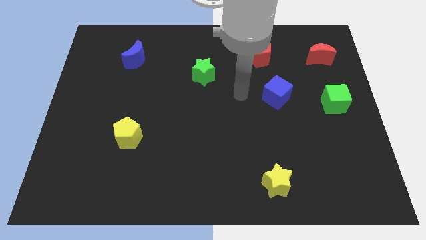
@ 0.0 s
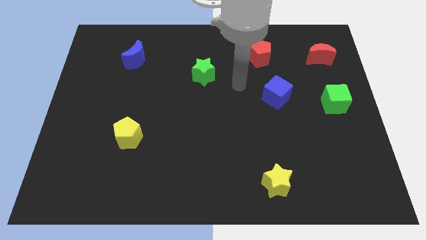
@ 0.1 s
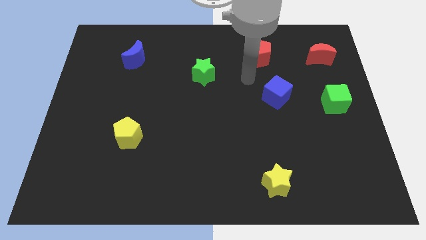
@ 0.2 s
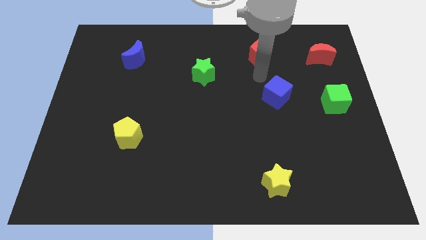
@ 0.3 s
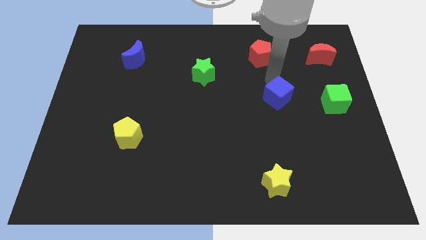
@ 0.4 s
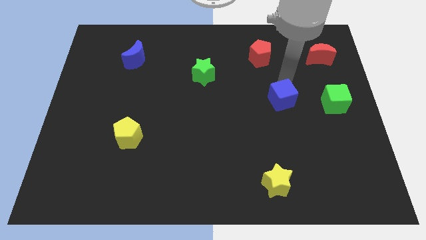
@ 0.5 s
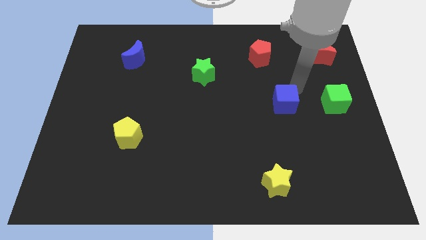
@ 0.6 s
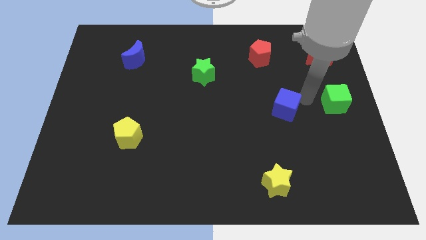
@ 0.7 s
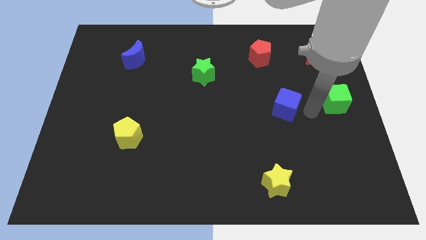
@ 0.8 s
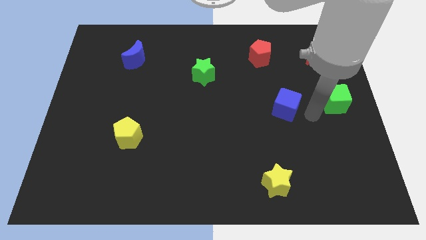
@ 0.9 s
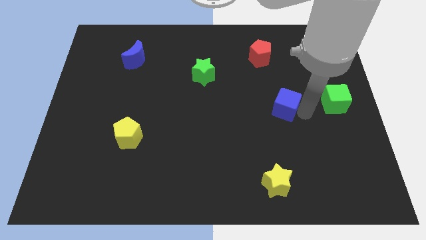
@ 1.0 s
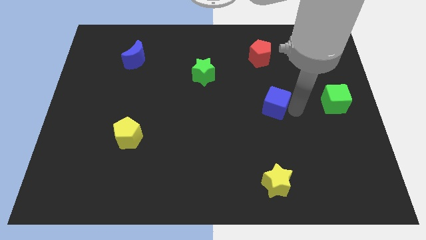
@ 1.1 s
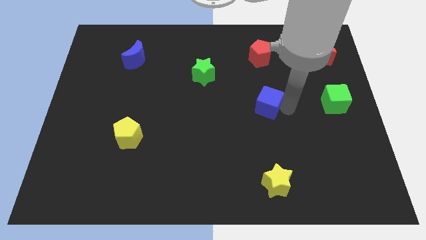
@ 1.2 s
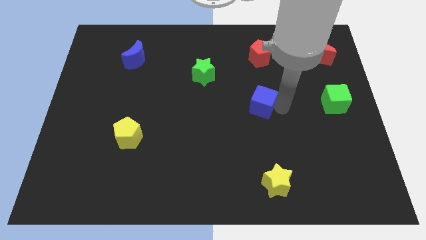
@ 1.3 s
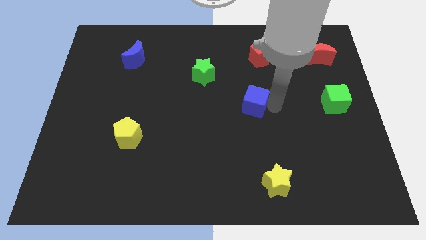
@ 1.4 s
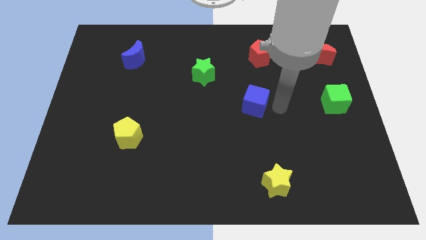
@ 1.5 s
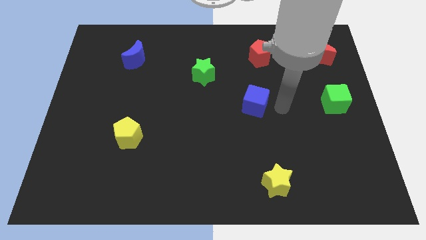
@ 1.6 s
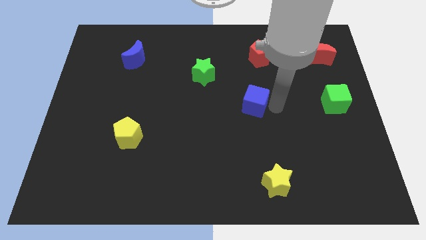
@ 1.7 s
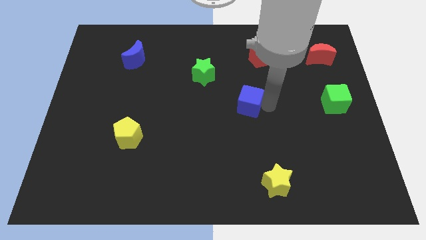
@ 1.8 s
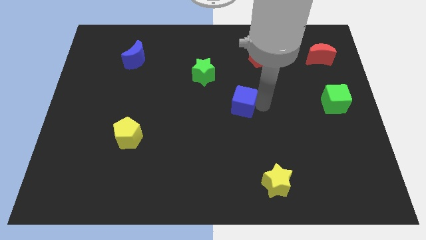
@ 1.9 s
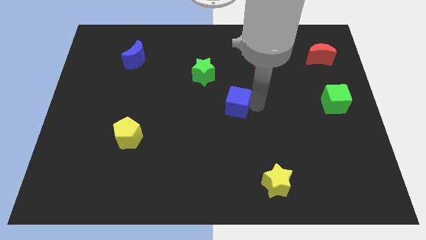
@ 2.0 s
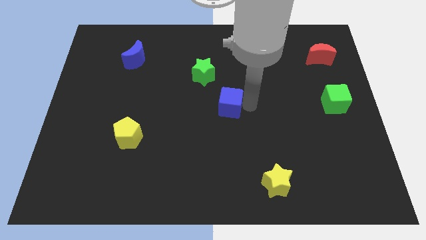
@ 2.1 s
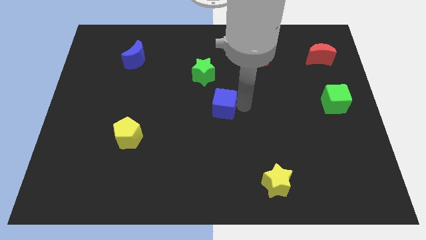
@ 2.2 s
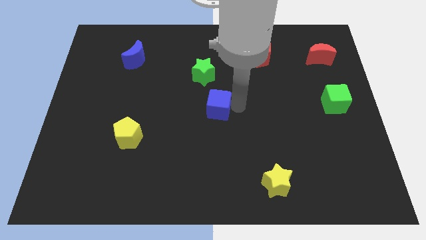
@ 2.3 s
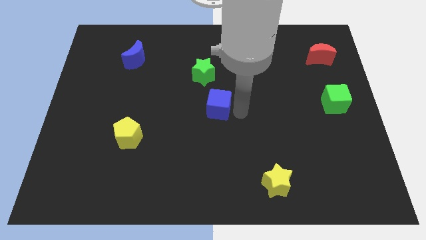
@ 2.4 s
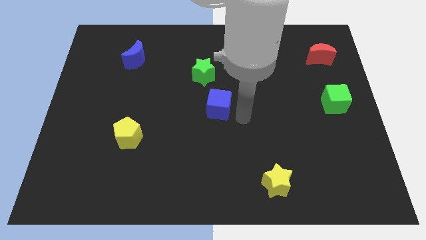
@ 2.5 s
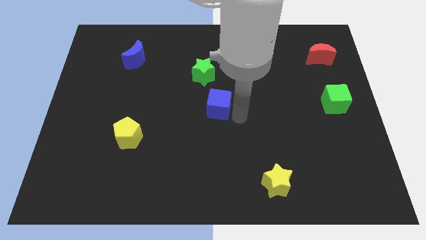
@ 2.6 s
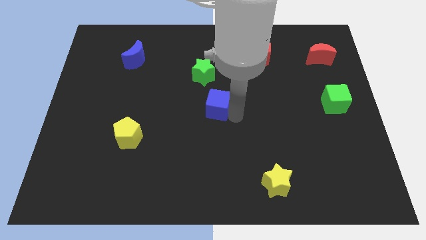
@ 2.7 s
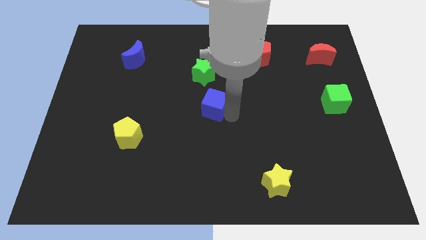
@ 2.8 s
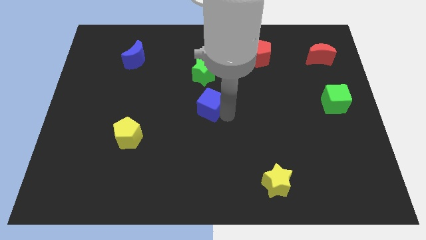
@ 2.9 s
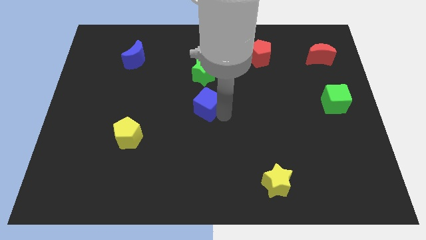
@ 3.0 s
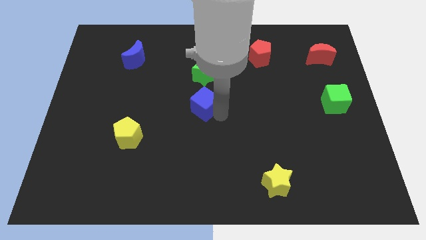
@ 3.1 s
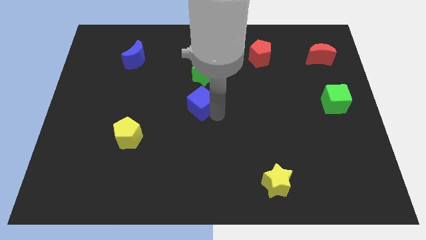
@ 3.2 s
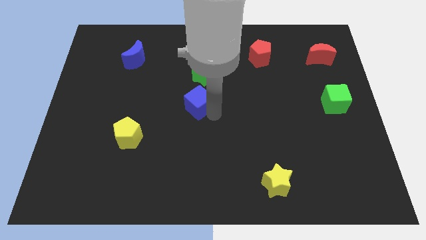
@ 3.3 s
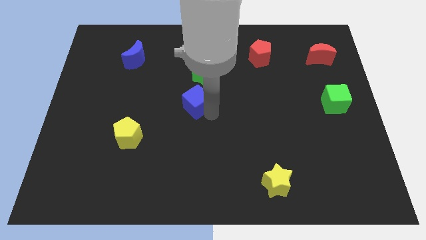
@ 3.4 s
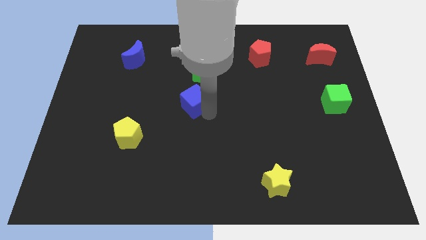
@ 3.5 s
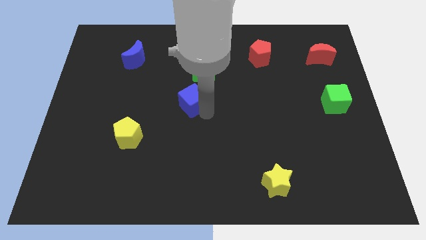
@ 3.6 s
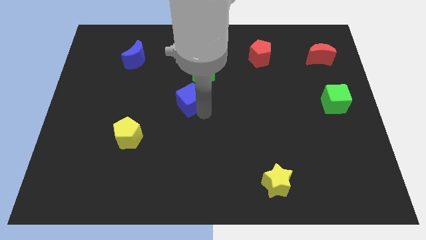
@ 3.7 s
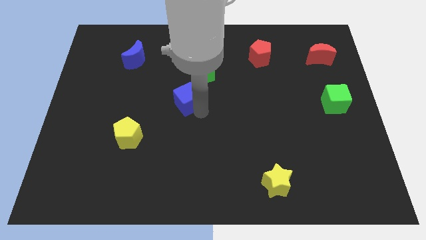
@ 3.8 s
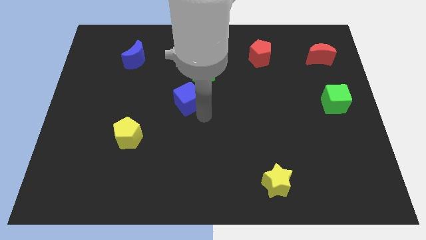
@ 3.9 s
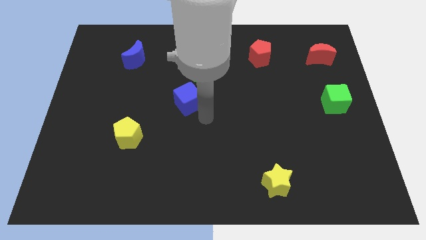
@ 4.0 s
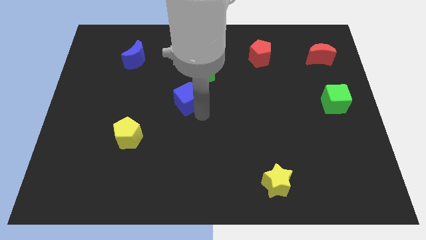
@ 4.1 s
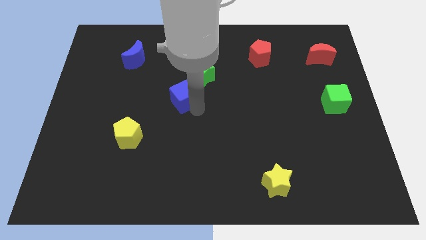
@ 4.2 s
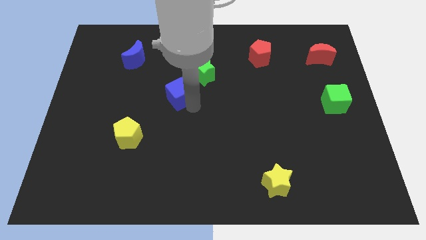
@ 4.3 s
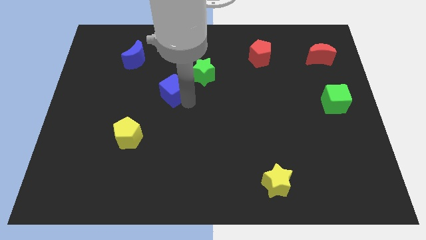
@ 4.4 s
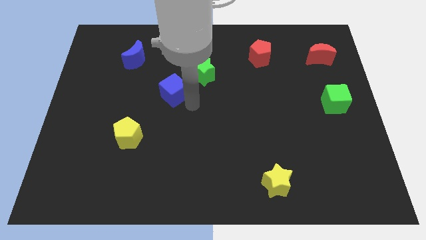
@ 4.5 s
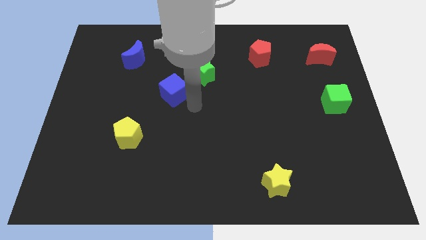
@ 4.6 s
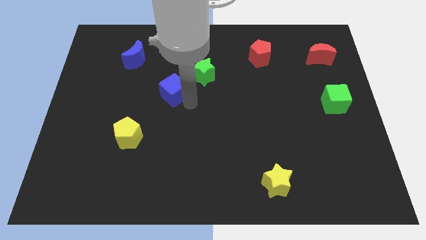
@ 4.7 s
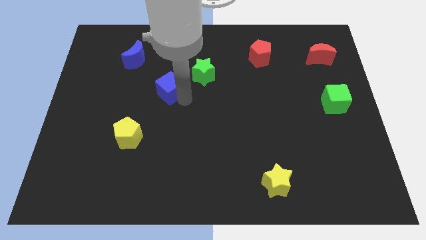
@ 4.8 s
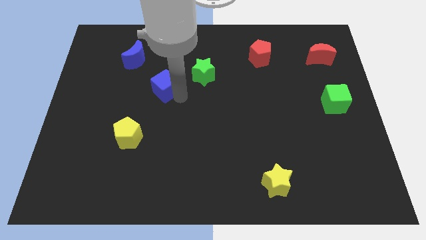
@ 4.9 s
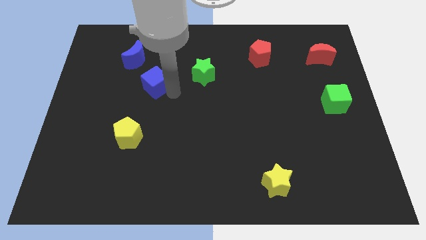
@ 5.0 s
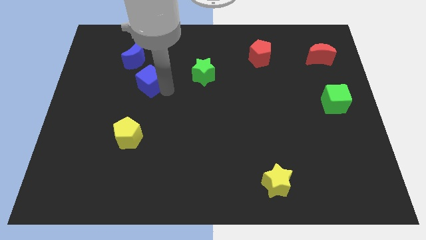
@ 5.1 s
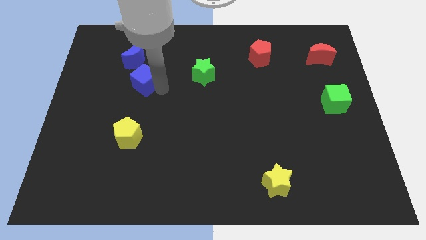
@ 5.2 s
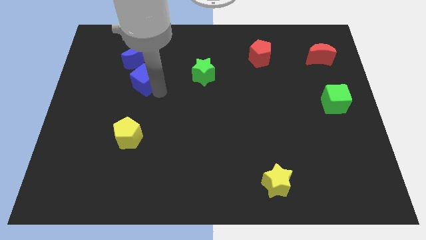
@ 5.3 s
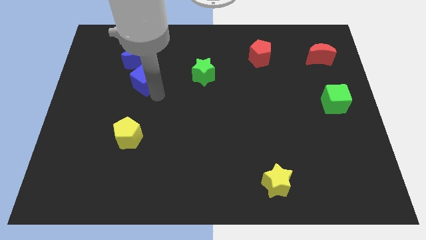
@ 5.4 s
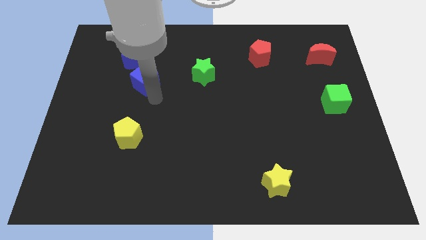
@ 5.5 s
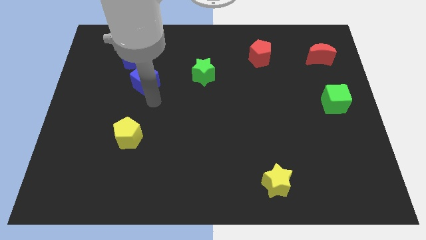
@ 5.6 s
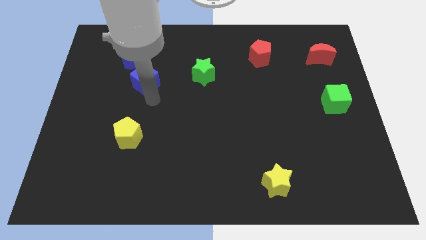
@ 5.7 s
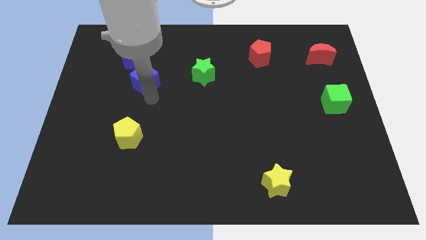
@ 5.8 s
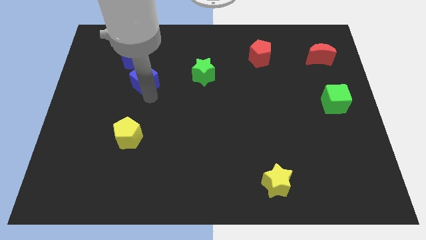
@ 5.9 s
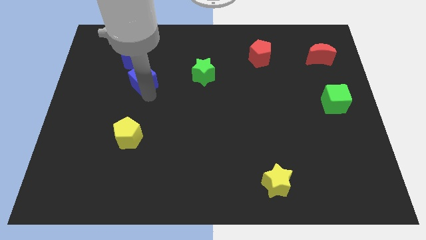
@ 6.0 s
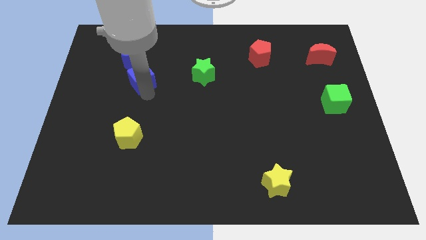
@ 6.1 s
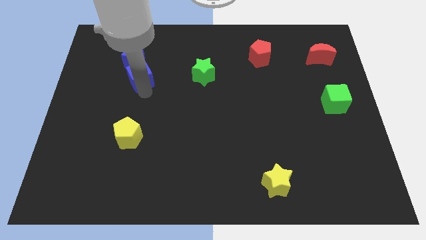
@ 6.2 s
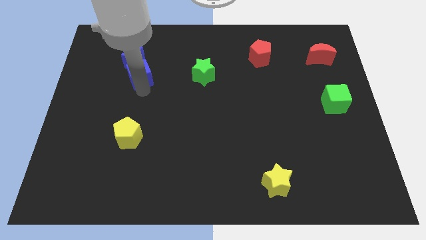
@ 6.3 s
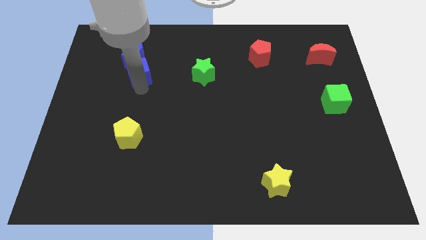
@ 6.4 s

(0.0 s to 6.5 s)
put the blue cube to the blue moon
